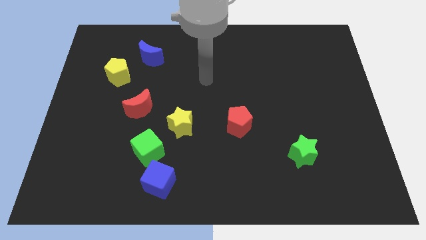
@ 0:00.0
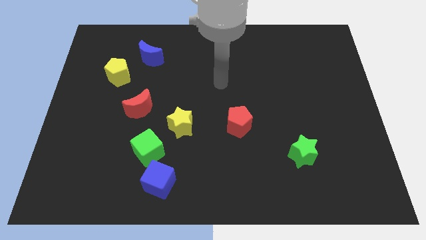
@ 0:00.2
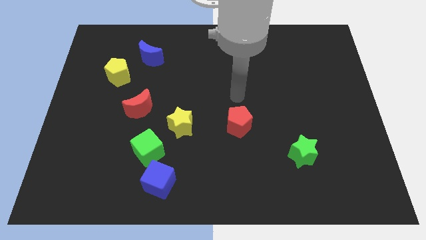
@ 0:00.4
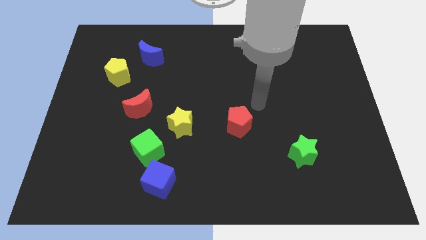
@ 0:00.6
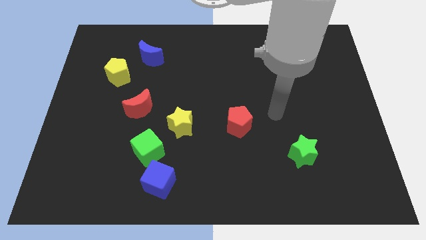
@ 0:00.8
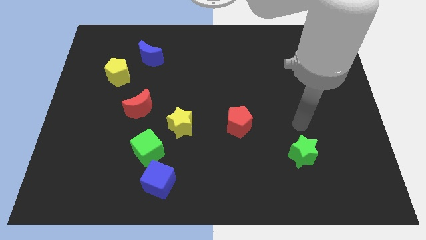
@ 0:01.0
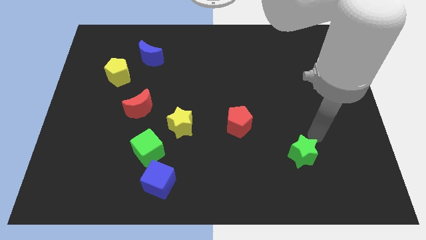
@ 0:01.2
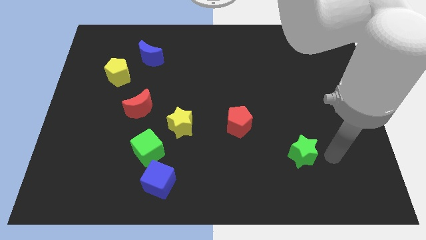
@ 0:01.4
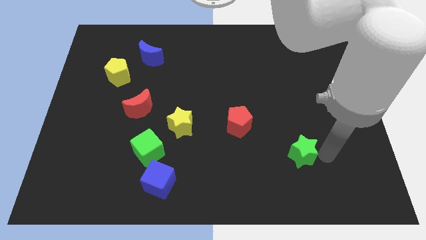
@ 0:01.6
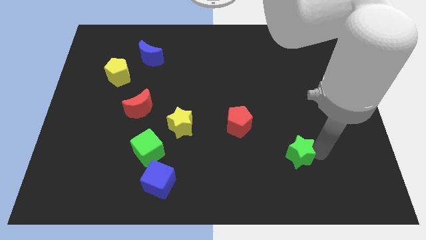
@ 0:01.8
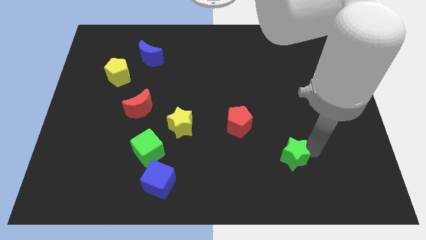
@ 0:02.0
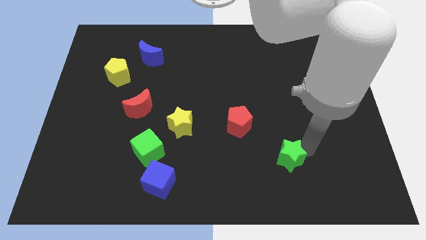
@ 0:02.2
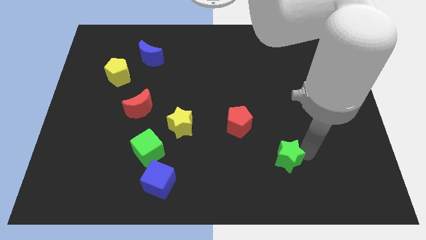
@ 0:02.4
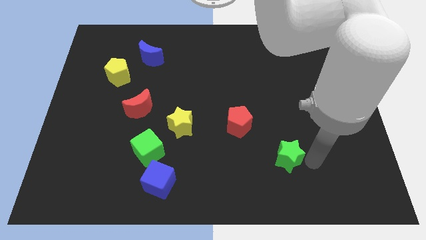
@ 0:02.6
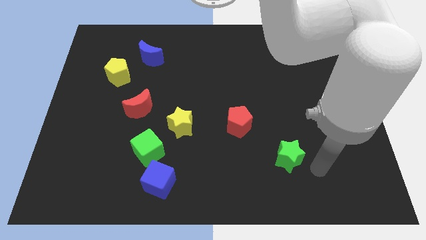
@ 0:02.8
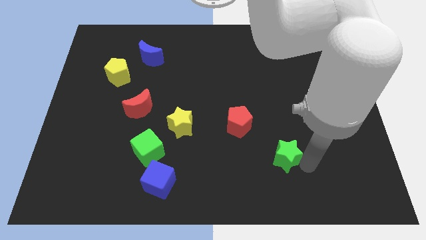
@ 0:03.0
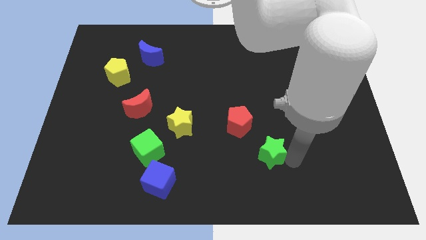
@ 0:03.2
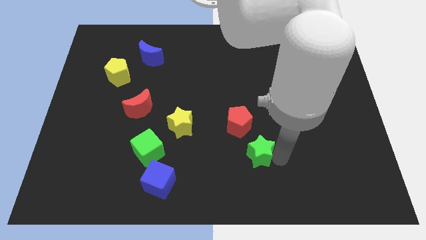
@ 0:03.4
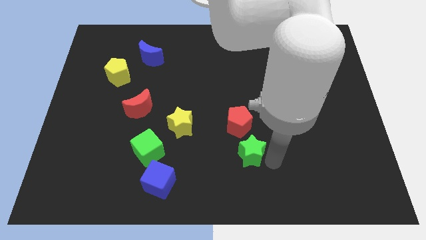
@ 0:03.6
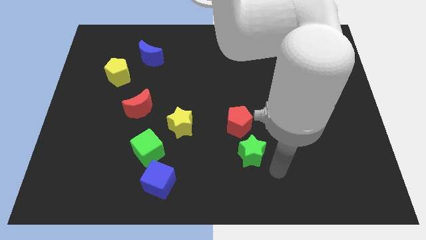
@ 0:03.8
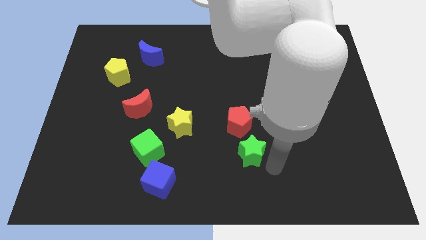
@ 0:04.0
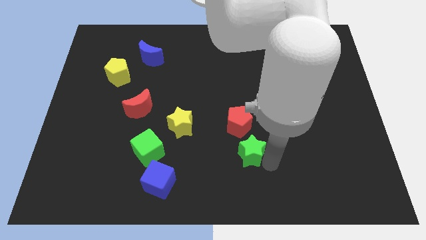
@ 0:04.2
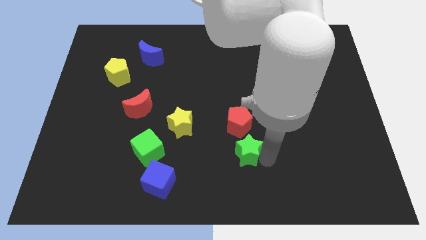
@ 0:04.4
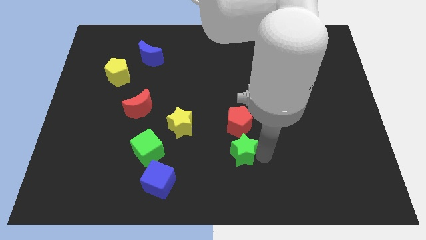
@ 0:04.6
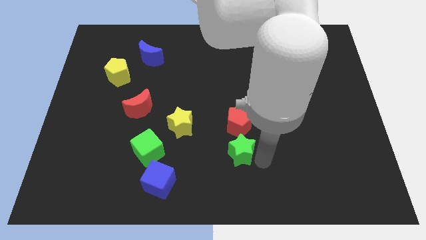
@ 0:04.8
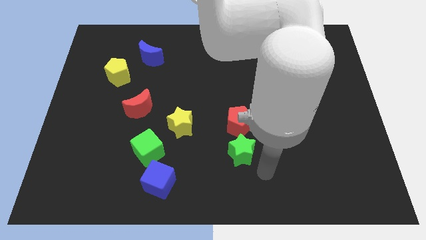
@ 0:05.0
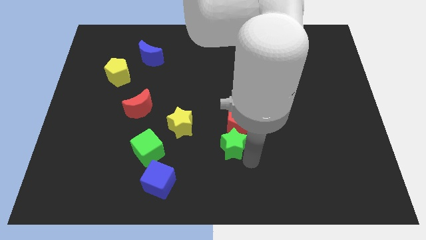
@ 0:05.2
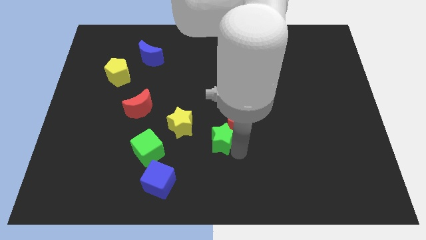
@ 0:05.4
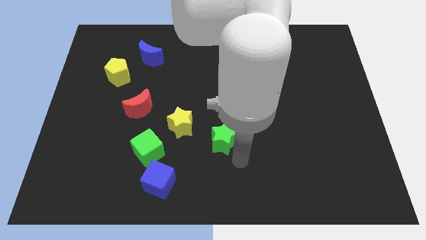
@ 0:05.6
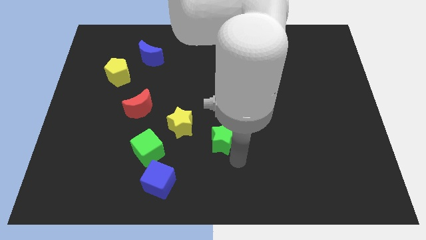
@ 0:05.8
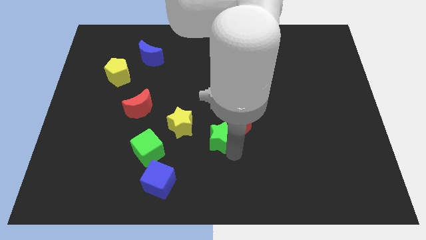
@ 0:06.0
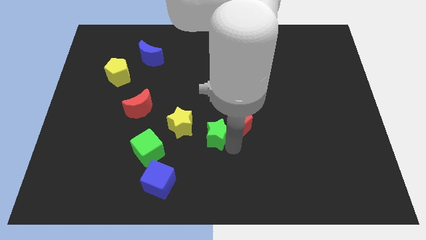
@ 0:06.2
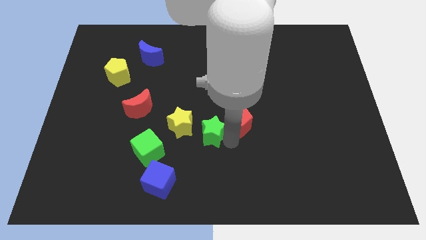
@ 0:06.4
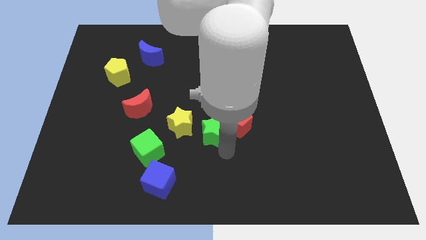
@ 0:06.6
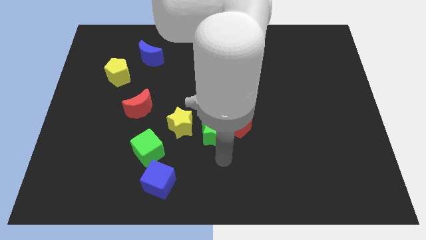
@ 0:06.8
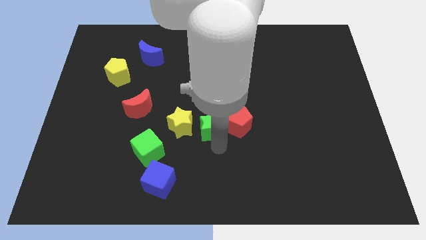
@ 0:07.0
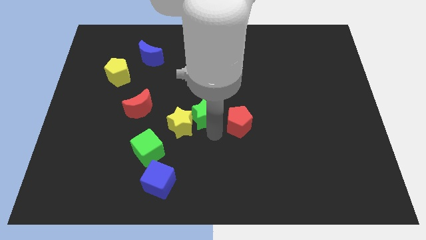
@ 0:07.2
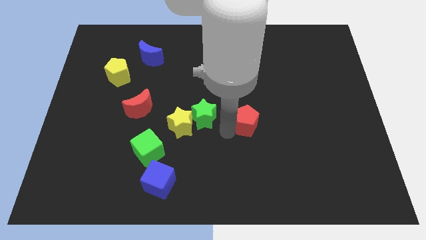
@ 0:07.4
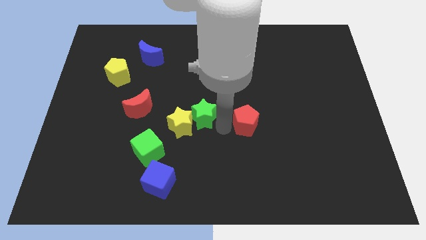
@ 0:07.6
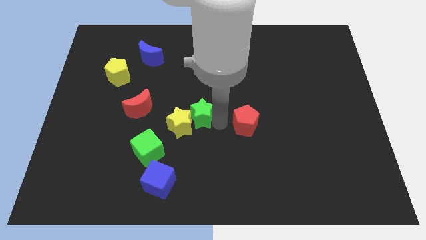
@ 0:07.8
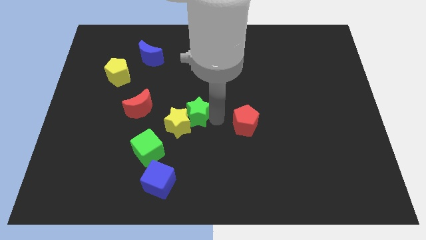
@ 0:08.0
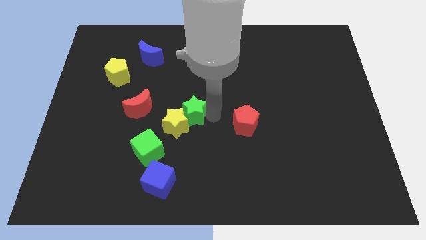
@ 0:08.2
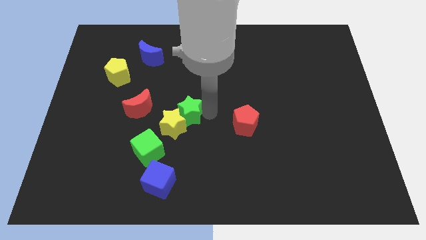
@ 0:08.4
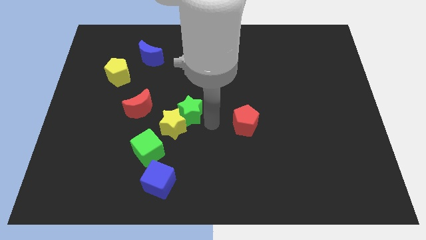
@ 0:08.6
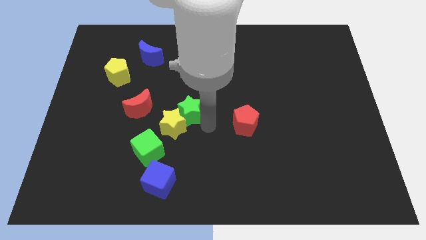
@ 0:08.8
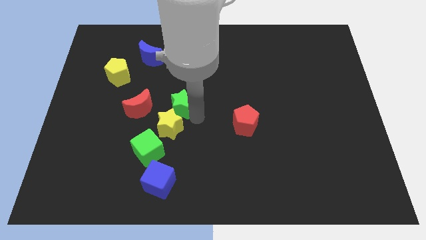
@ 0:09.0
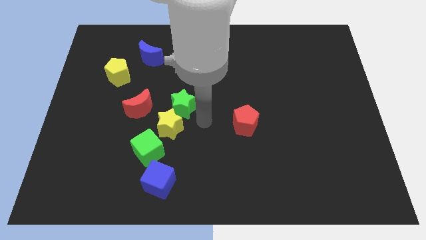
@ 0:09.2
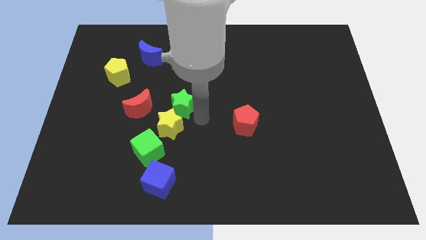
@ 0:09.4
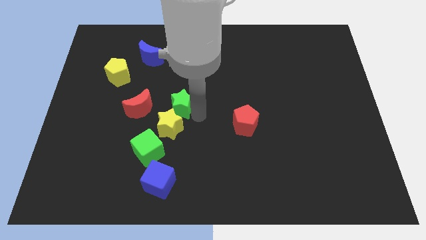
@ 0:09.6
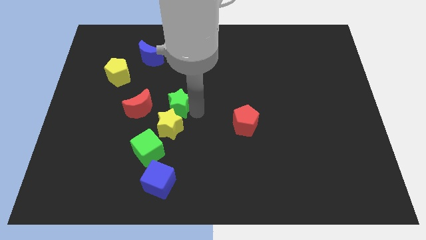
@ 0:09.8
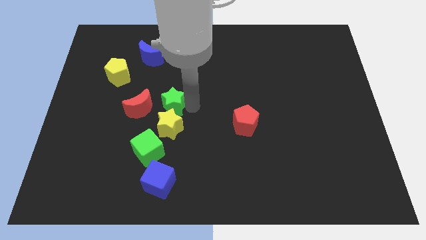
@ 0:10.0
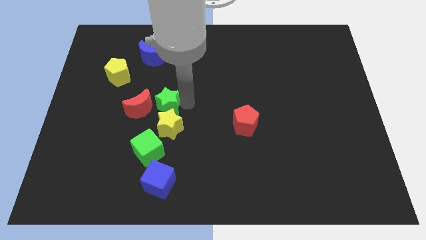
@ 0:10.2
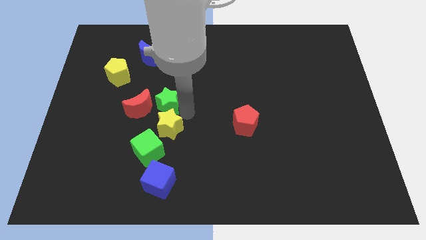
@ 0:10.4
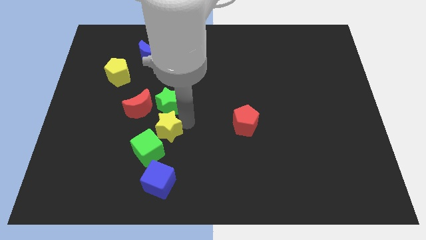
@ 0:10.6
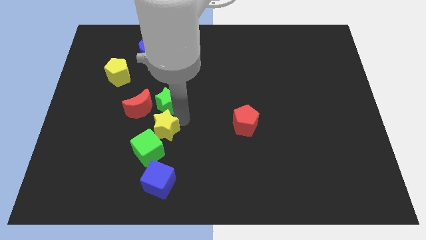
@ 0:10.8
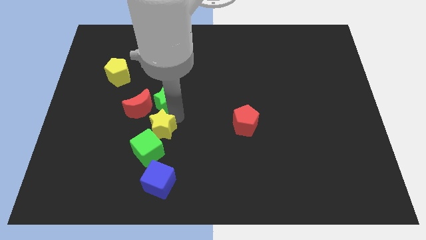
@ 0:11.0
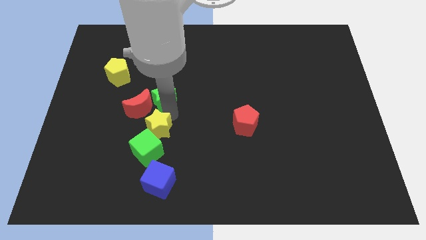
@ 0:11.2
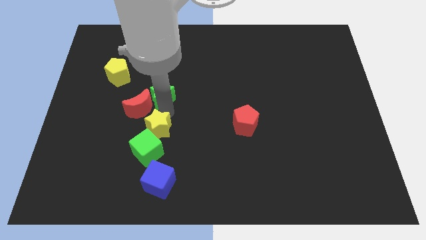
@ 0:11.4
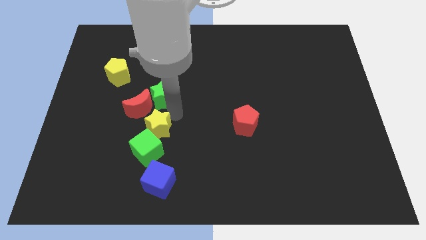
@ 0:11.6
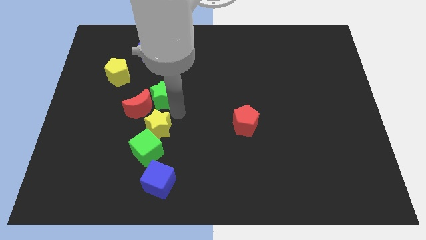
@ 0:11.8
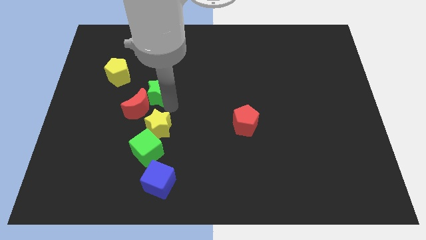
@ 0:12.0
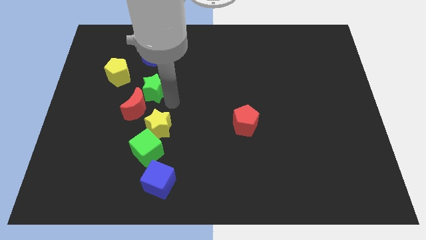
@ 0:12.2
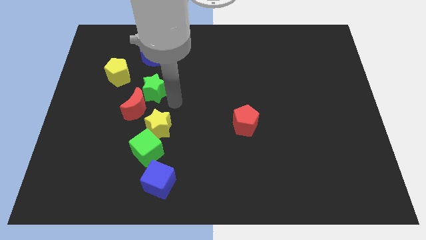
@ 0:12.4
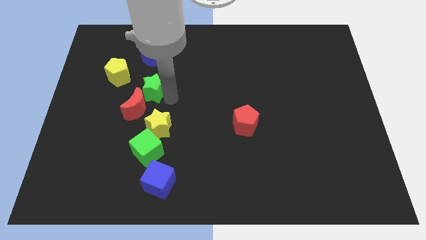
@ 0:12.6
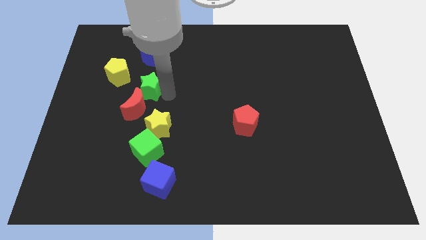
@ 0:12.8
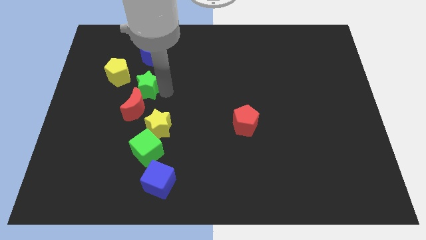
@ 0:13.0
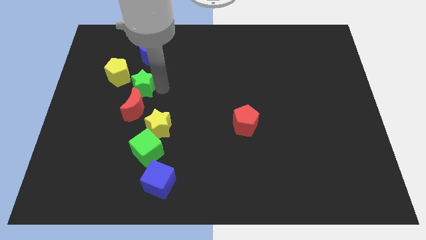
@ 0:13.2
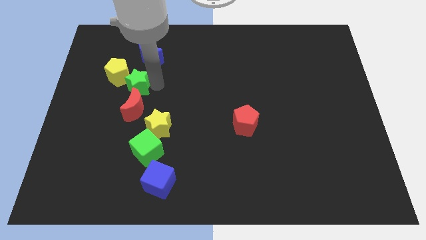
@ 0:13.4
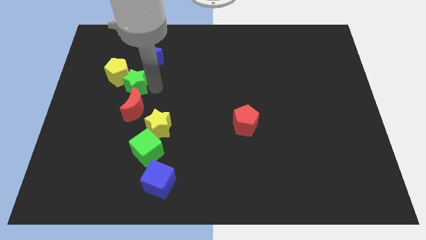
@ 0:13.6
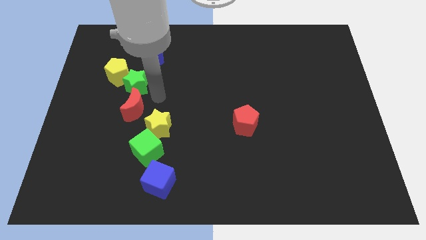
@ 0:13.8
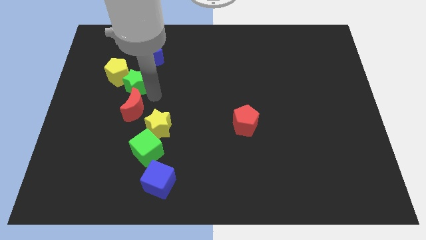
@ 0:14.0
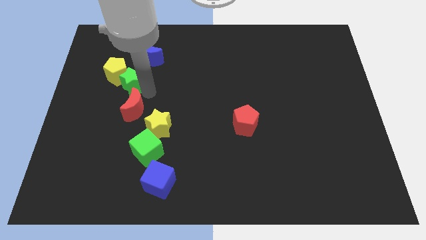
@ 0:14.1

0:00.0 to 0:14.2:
slide the green star next to the yellow pentagon
